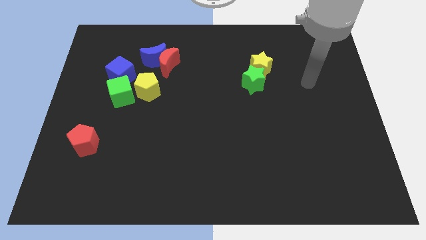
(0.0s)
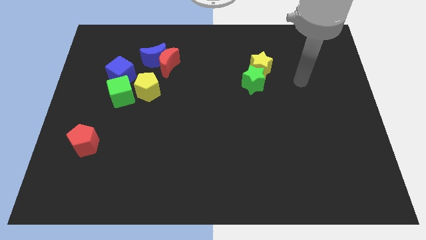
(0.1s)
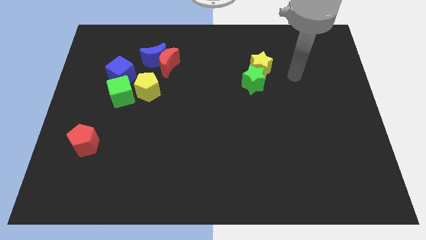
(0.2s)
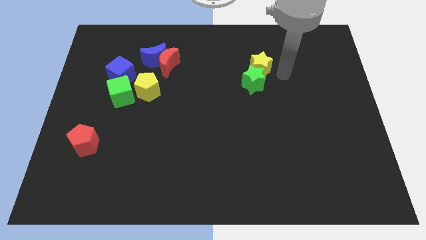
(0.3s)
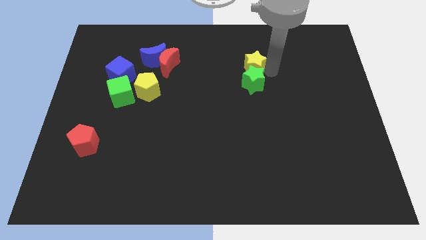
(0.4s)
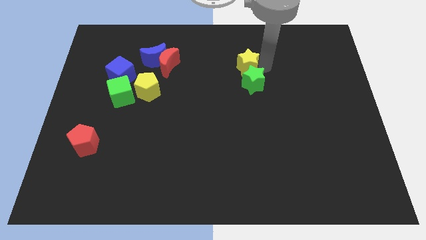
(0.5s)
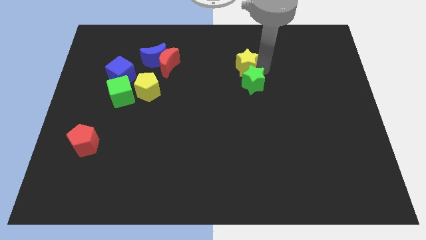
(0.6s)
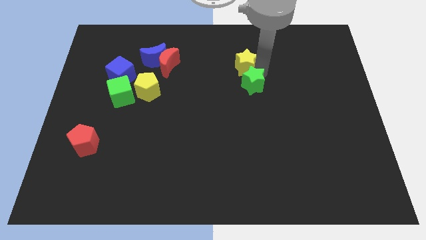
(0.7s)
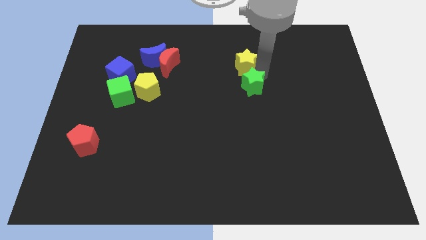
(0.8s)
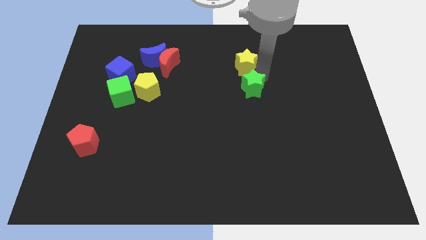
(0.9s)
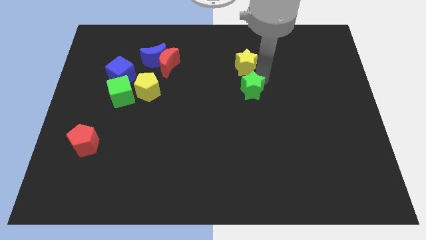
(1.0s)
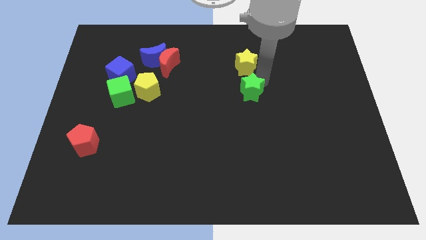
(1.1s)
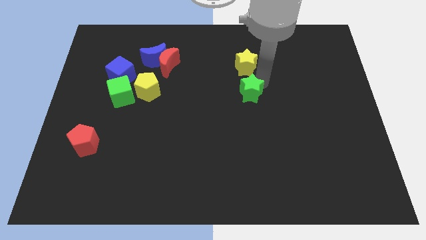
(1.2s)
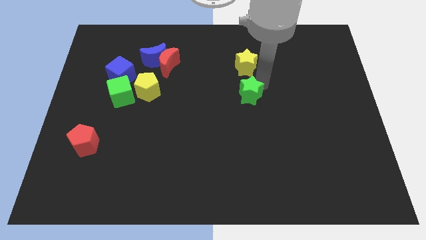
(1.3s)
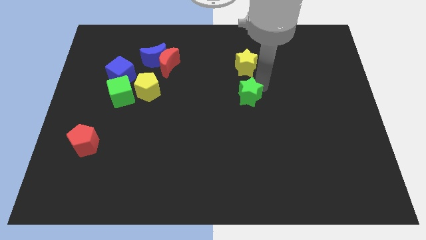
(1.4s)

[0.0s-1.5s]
pull the green star apart from the yellow star

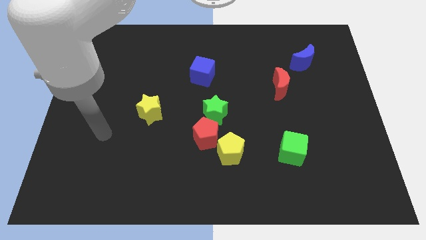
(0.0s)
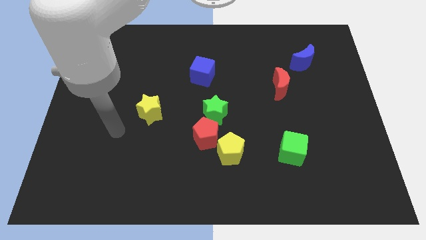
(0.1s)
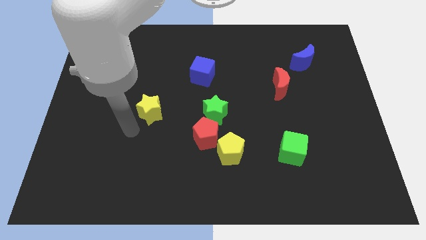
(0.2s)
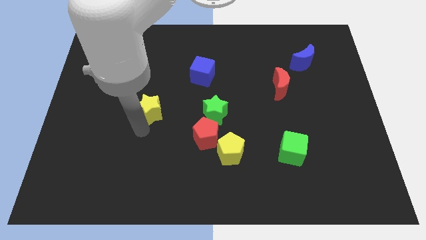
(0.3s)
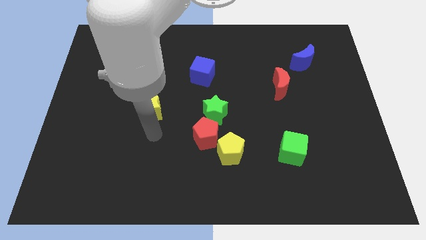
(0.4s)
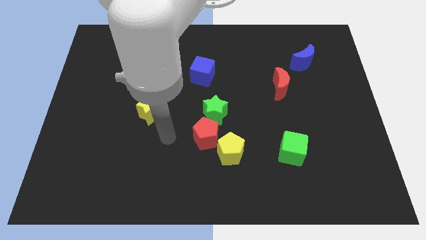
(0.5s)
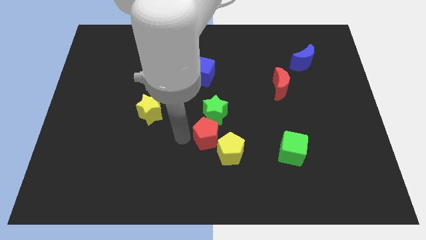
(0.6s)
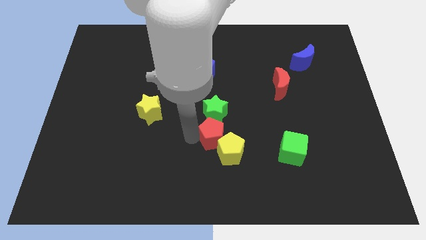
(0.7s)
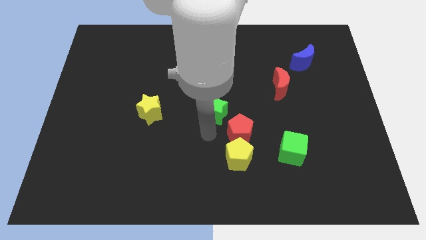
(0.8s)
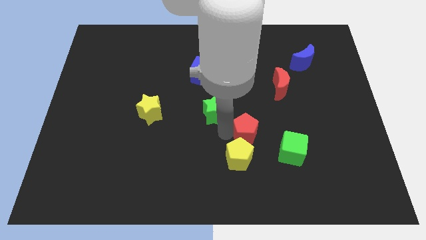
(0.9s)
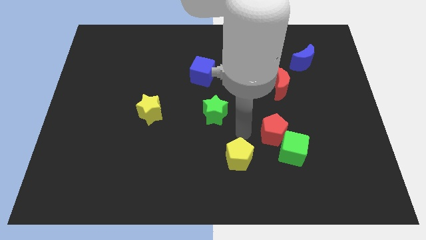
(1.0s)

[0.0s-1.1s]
pull the yellow pentagon apart from the red pentagon

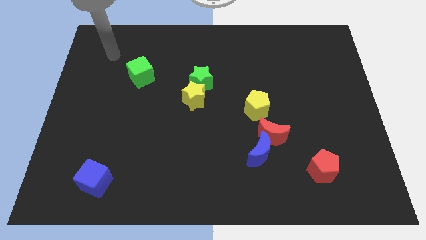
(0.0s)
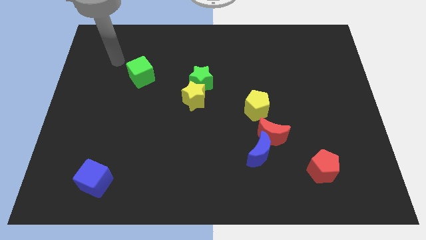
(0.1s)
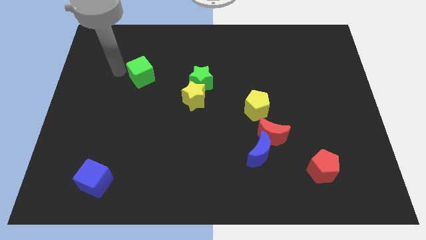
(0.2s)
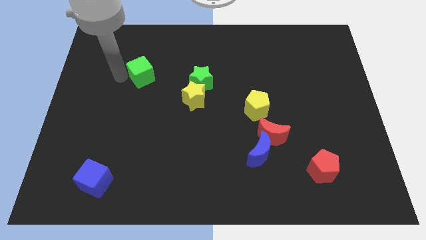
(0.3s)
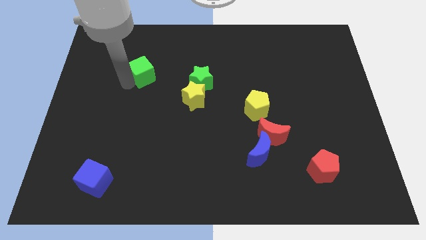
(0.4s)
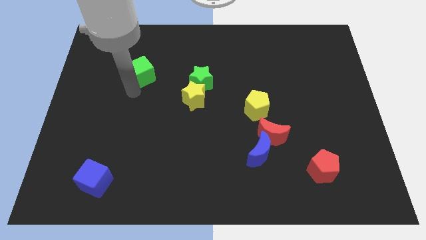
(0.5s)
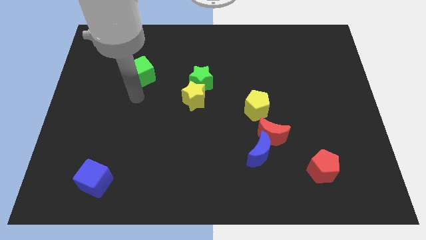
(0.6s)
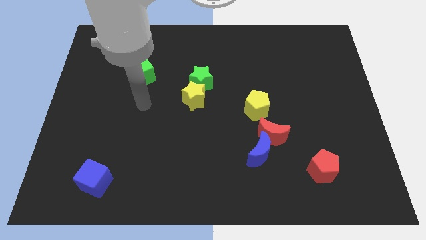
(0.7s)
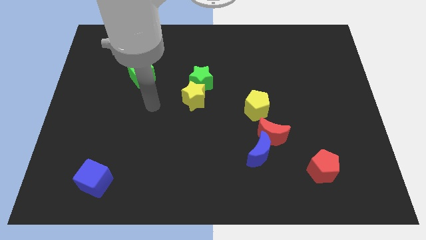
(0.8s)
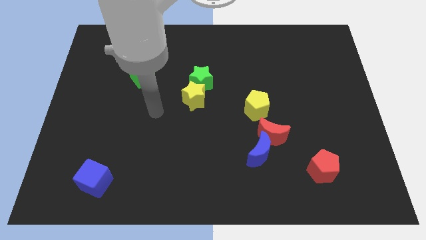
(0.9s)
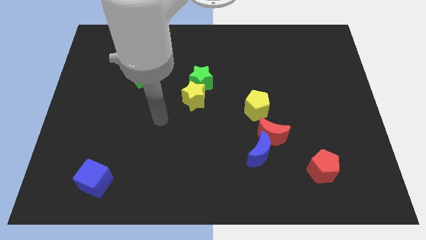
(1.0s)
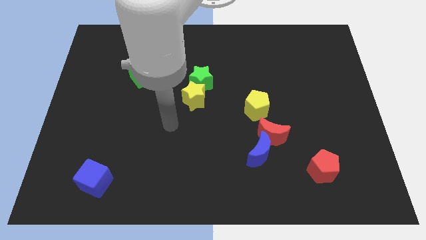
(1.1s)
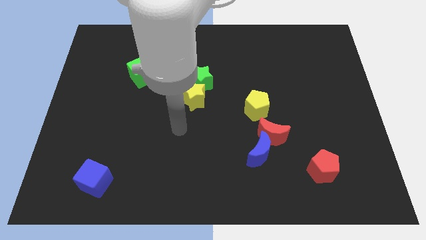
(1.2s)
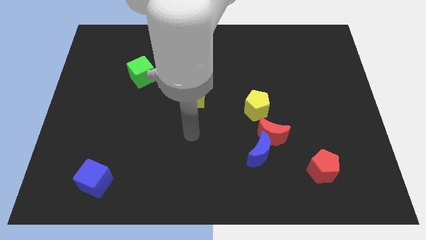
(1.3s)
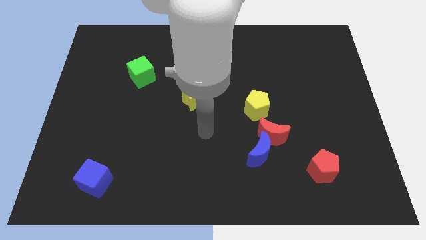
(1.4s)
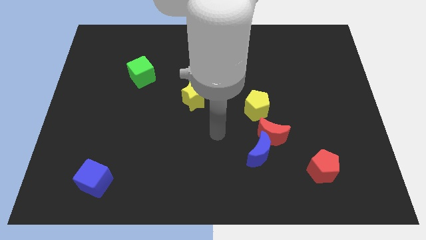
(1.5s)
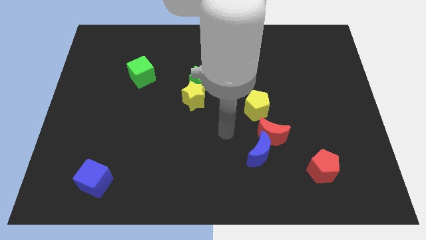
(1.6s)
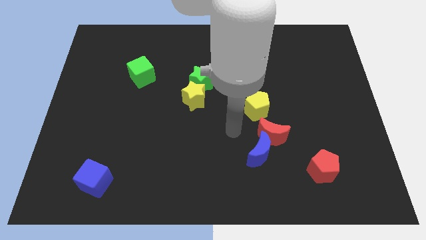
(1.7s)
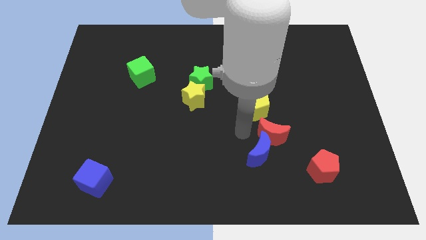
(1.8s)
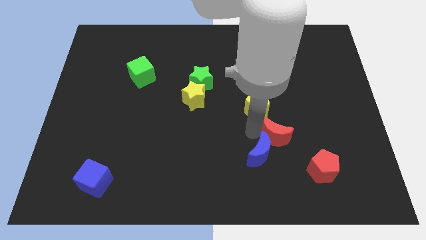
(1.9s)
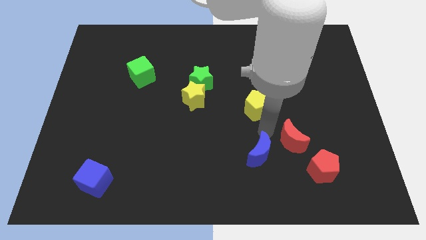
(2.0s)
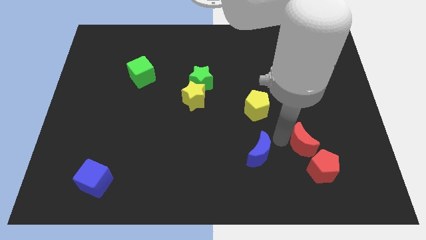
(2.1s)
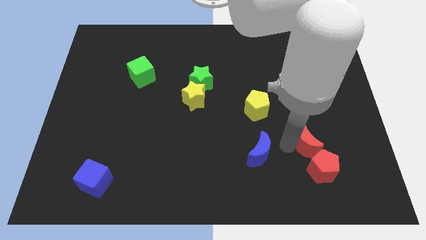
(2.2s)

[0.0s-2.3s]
move the blue moon away from the red moon

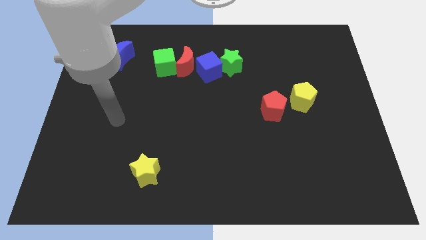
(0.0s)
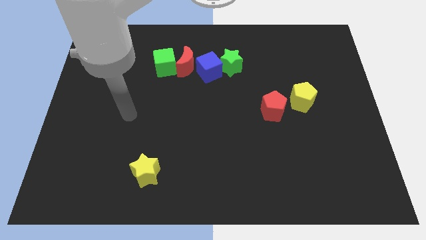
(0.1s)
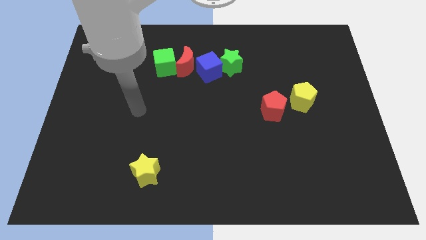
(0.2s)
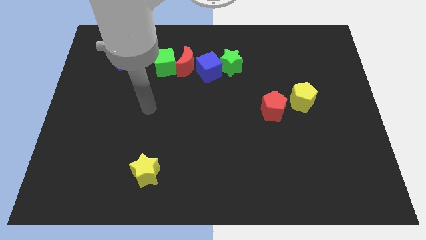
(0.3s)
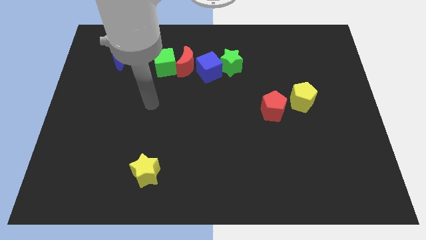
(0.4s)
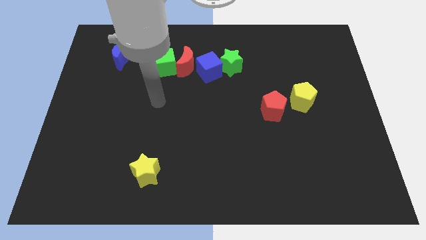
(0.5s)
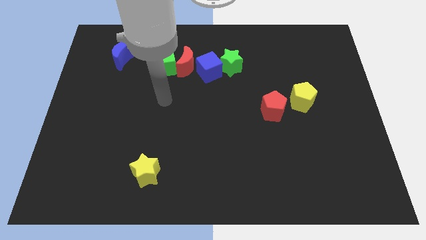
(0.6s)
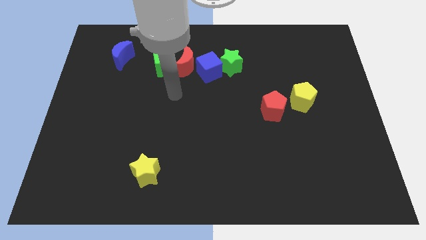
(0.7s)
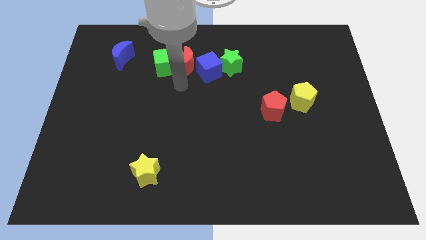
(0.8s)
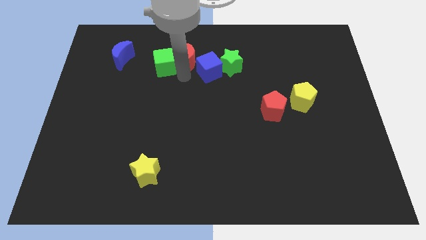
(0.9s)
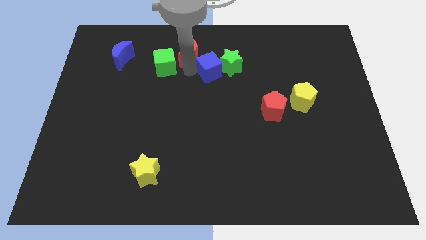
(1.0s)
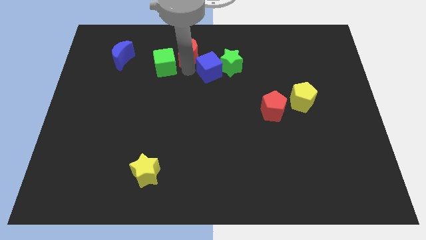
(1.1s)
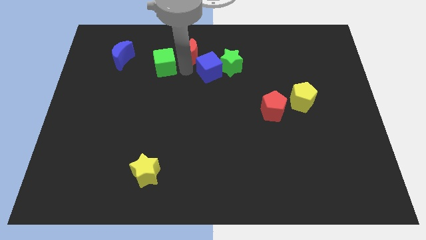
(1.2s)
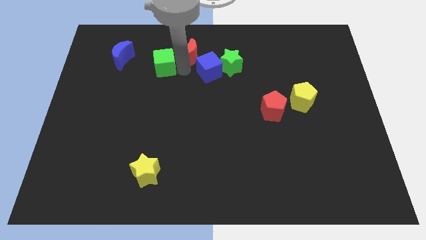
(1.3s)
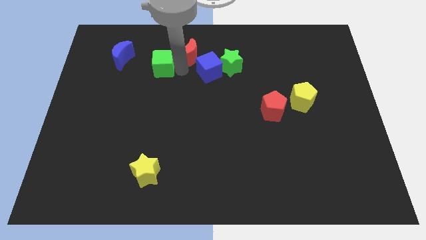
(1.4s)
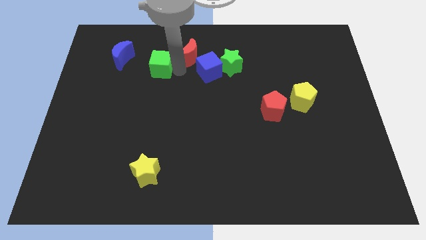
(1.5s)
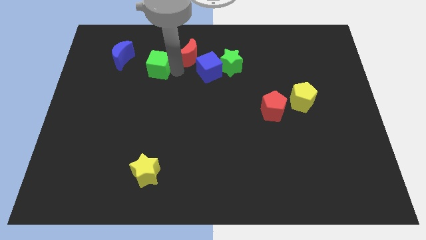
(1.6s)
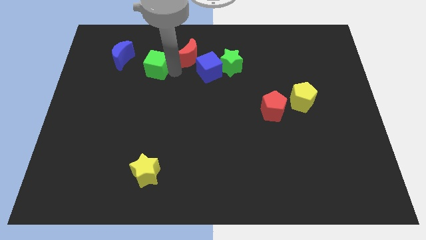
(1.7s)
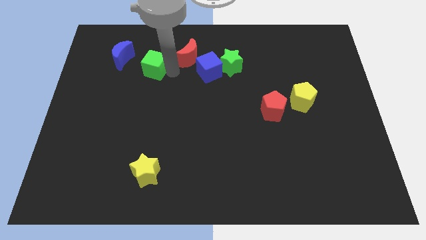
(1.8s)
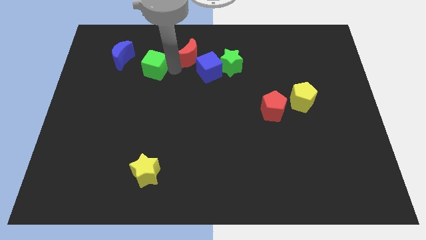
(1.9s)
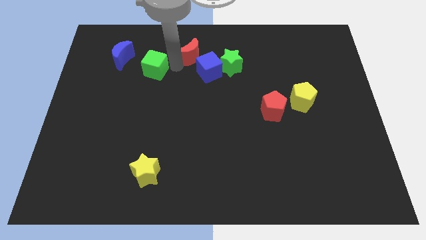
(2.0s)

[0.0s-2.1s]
pull the green cube apart from the red moon

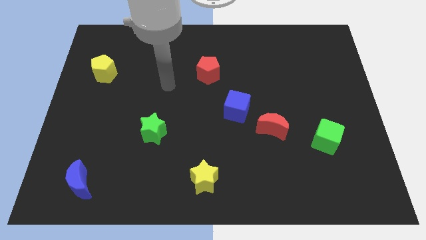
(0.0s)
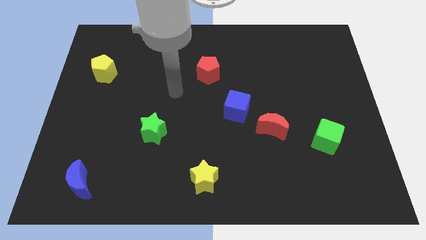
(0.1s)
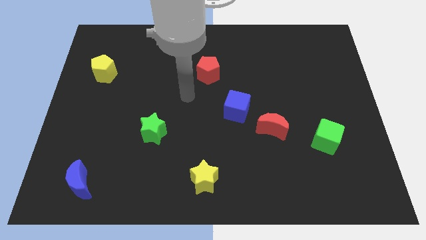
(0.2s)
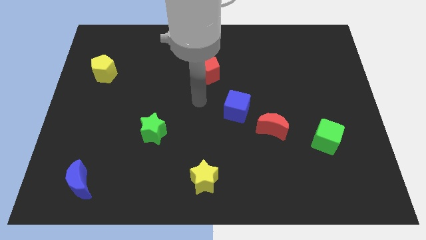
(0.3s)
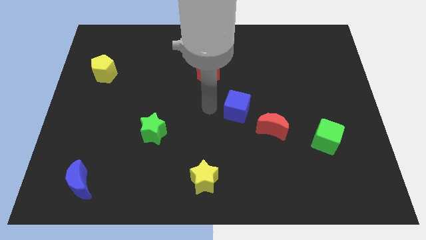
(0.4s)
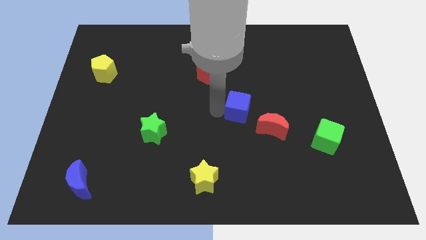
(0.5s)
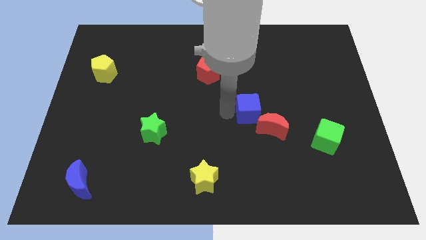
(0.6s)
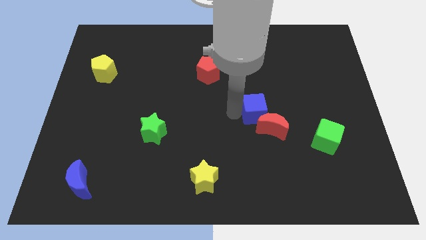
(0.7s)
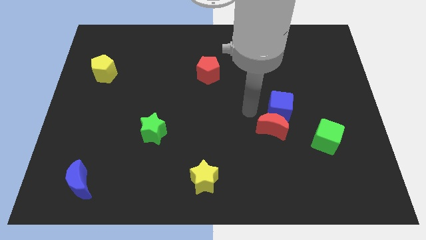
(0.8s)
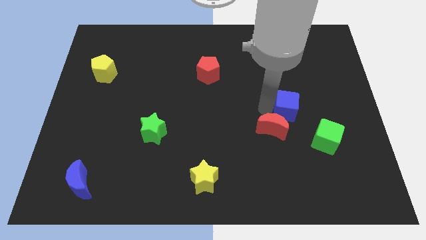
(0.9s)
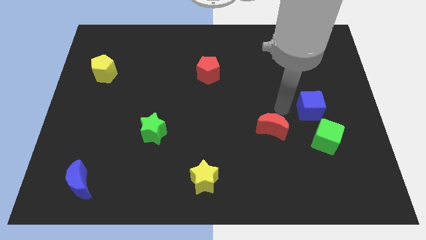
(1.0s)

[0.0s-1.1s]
move the red moon away from the blue cube

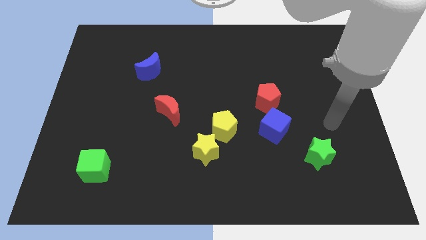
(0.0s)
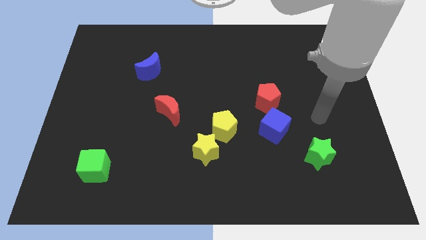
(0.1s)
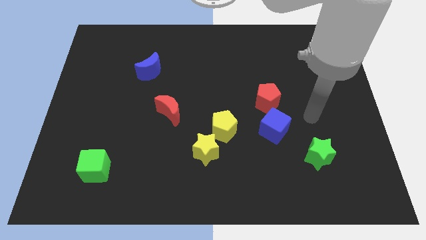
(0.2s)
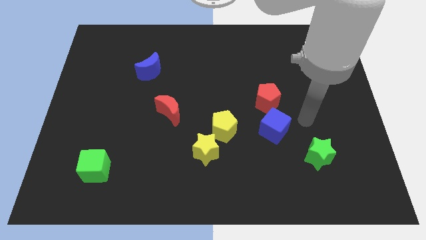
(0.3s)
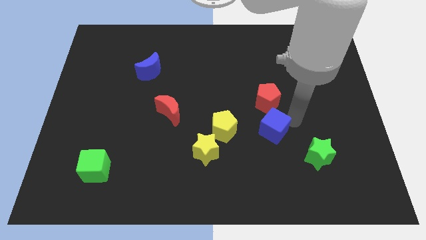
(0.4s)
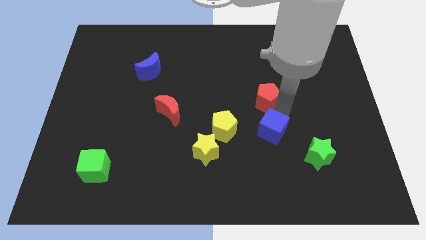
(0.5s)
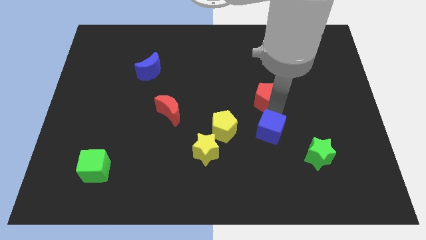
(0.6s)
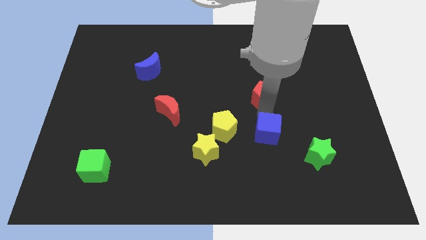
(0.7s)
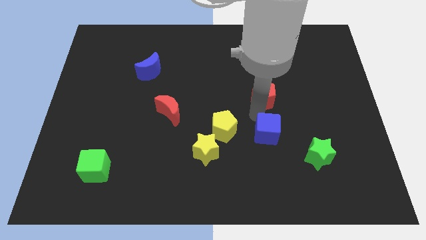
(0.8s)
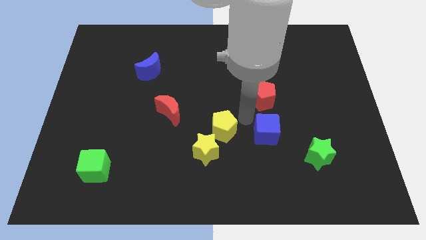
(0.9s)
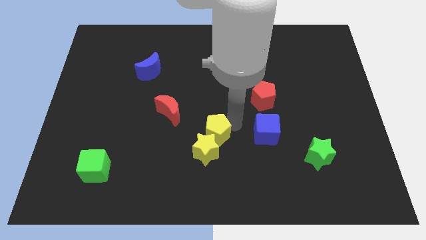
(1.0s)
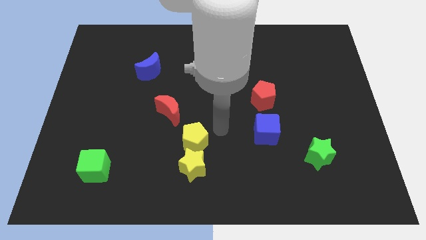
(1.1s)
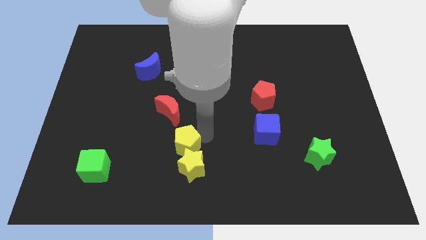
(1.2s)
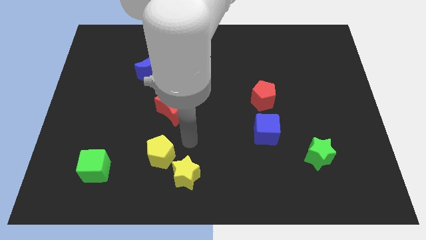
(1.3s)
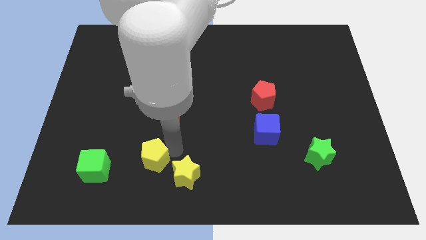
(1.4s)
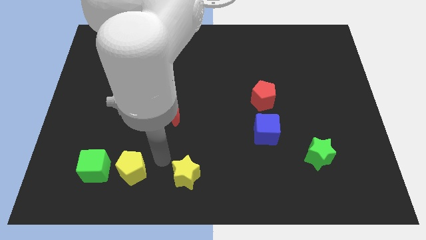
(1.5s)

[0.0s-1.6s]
separate the yellow star from the yellow pentagon
